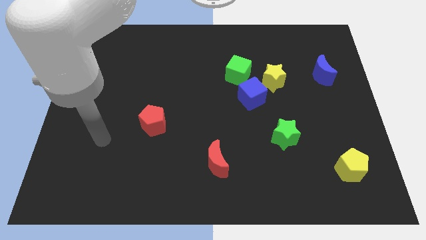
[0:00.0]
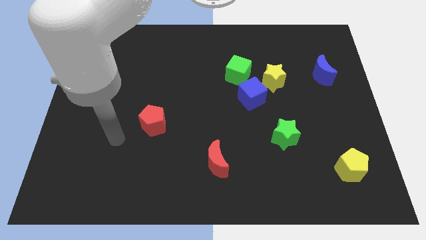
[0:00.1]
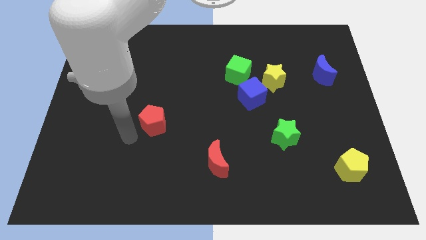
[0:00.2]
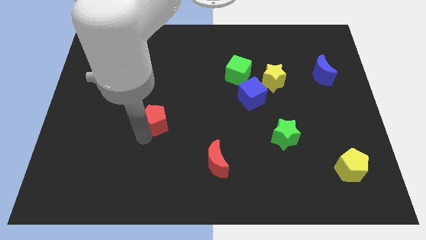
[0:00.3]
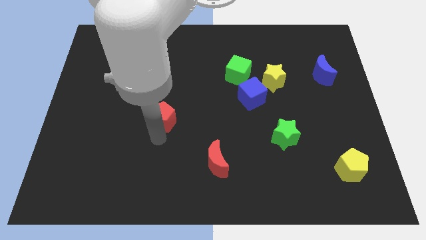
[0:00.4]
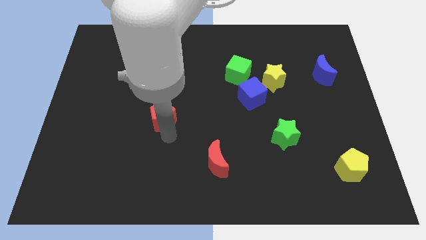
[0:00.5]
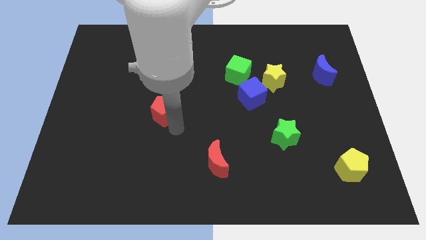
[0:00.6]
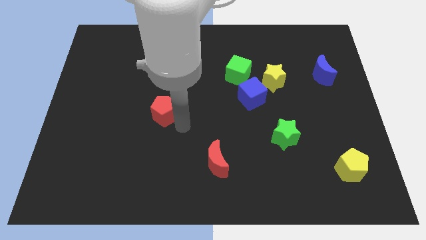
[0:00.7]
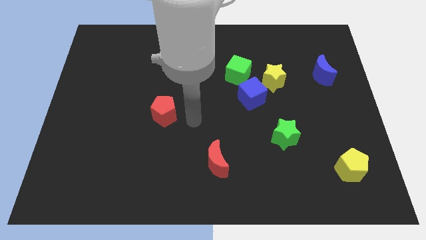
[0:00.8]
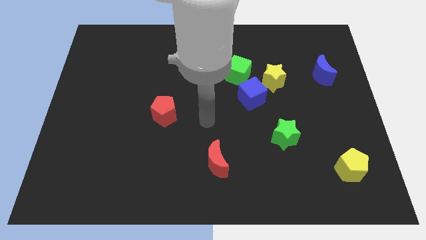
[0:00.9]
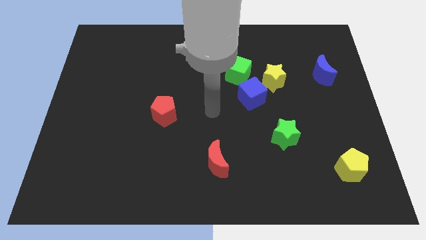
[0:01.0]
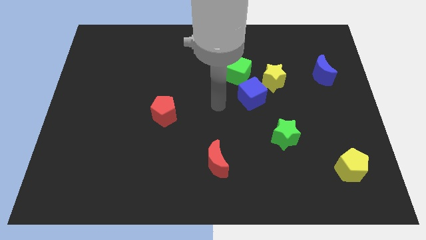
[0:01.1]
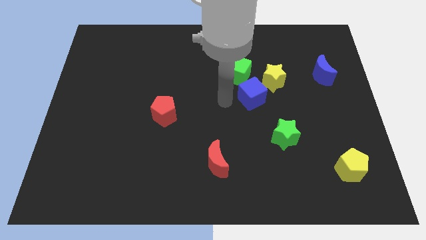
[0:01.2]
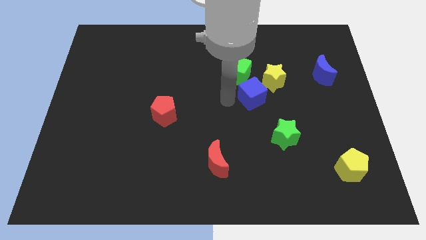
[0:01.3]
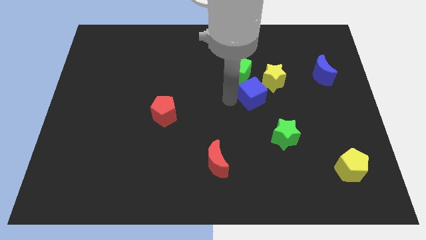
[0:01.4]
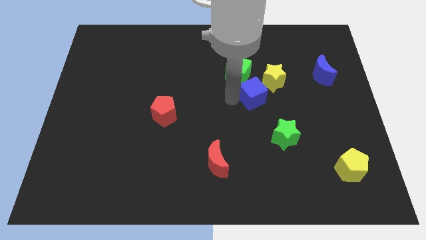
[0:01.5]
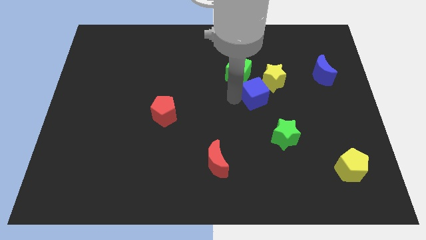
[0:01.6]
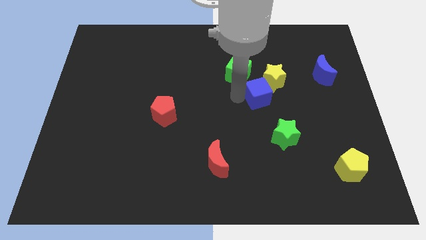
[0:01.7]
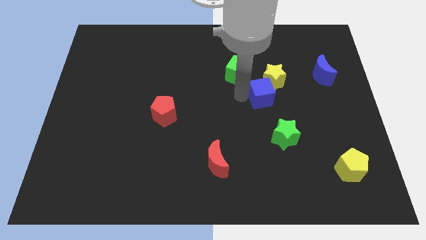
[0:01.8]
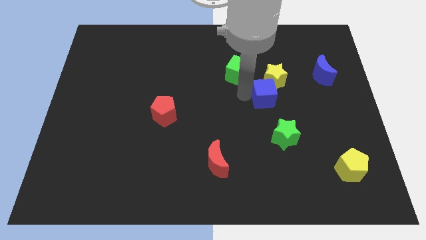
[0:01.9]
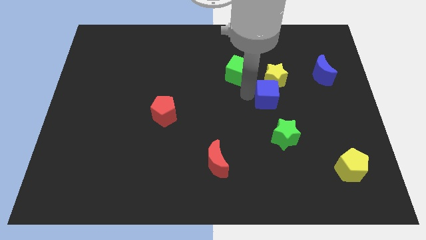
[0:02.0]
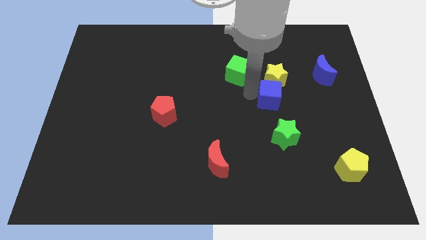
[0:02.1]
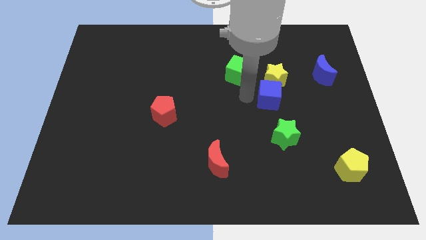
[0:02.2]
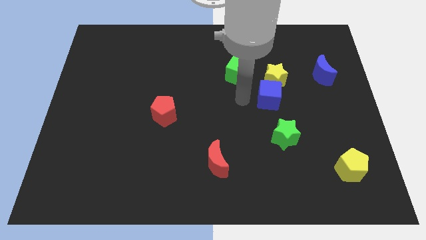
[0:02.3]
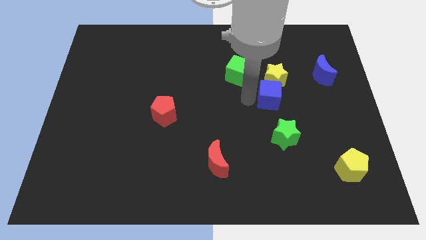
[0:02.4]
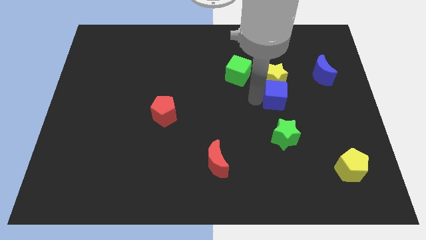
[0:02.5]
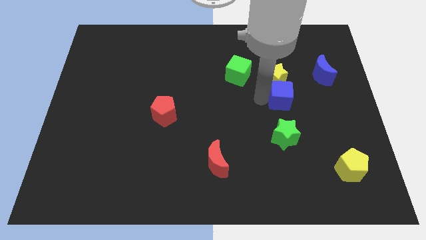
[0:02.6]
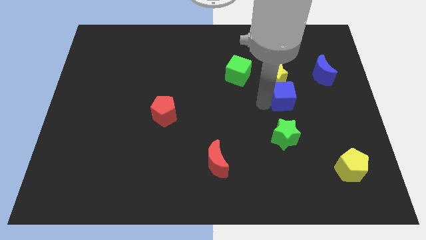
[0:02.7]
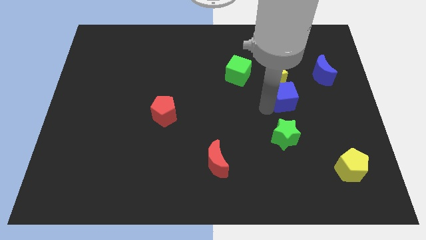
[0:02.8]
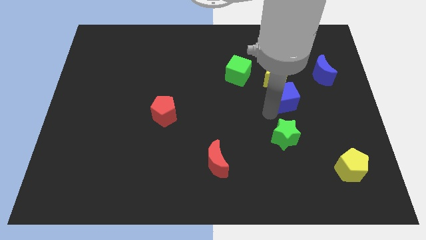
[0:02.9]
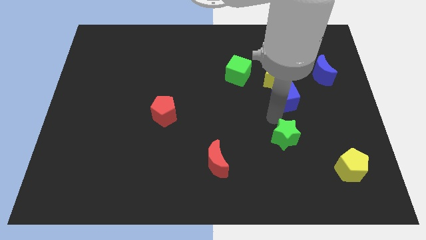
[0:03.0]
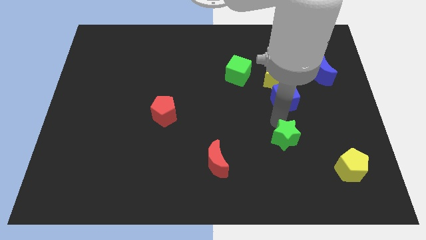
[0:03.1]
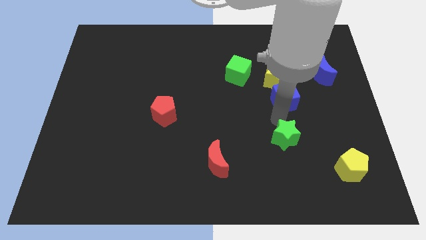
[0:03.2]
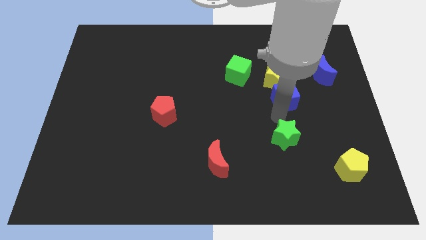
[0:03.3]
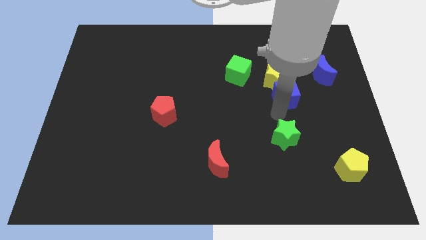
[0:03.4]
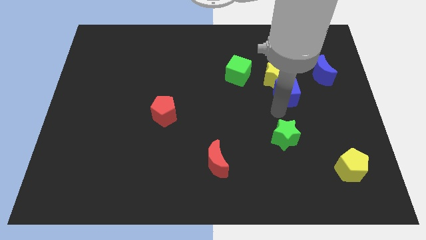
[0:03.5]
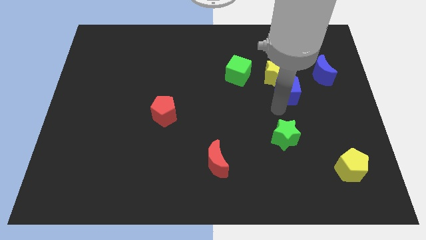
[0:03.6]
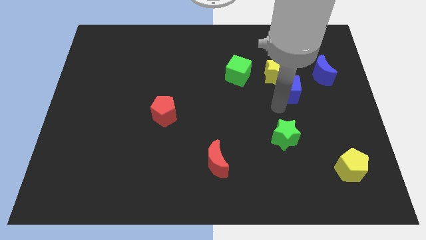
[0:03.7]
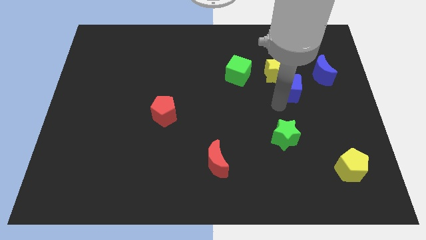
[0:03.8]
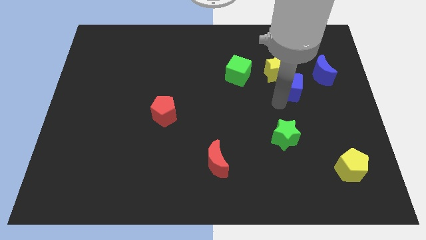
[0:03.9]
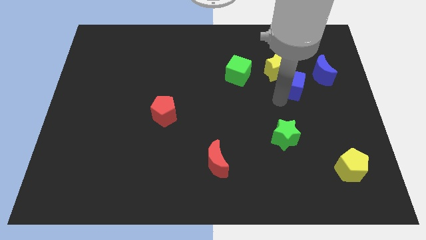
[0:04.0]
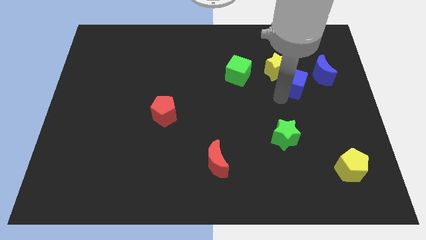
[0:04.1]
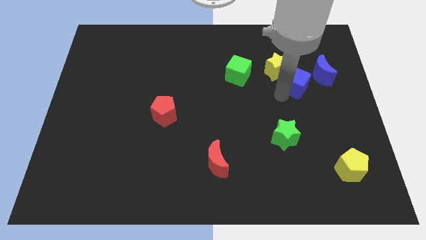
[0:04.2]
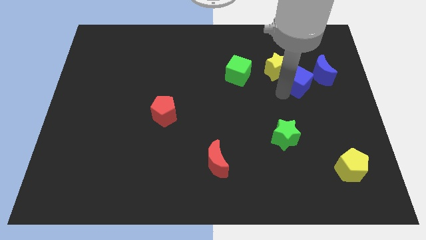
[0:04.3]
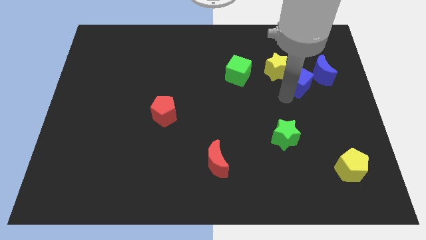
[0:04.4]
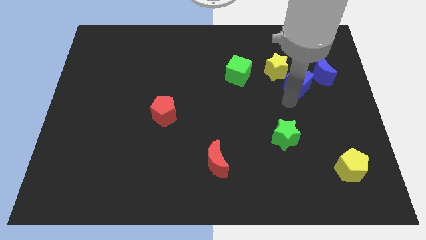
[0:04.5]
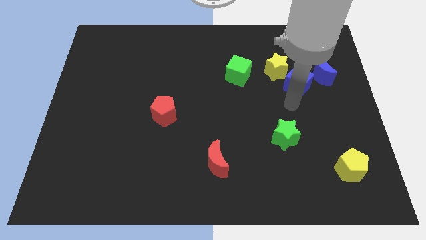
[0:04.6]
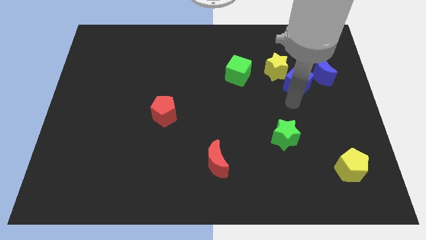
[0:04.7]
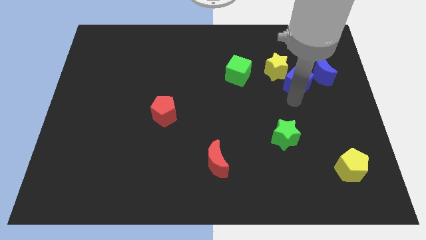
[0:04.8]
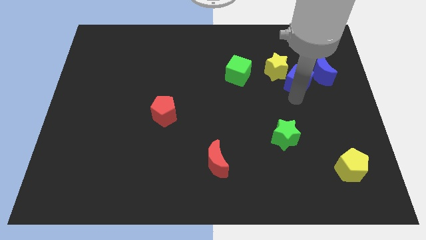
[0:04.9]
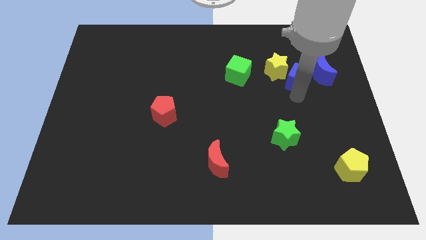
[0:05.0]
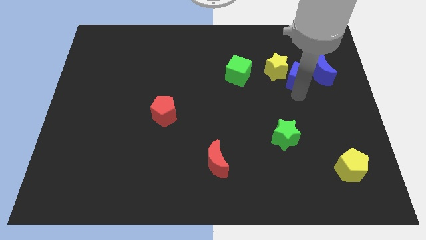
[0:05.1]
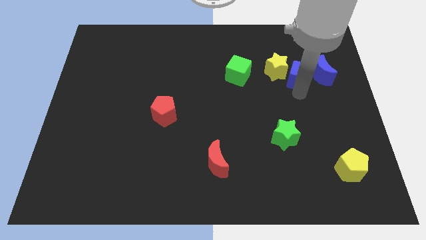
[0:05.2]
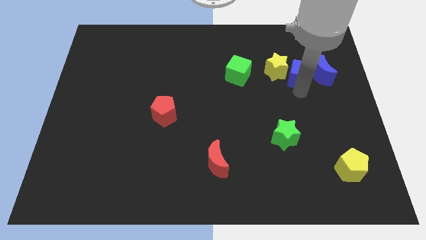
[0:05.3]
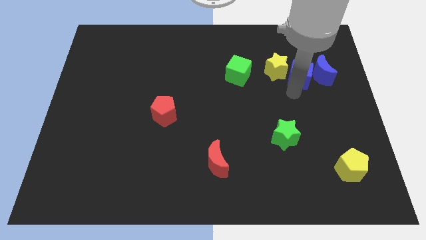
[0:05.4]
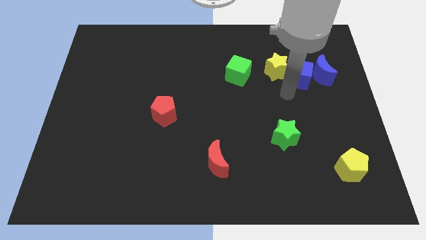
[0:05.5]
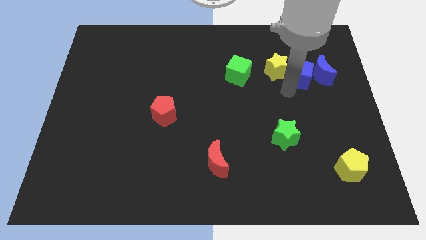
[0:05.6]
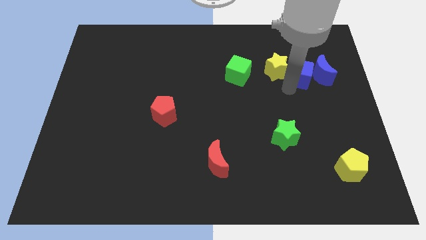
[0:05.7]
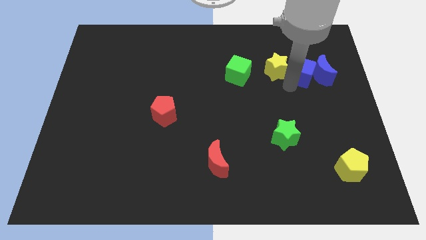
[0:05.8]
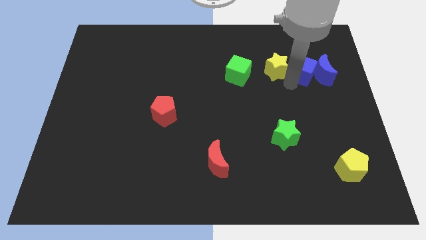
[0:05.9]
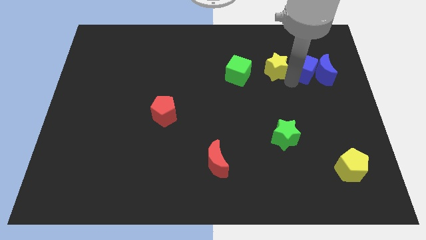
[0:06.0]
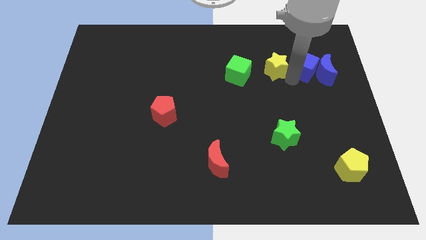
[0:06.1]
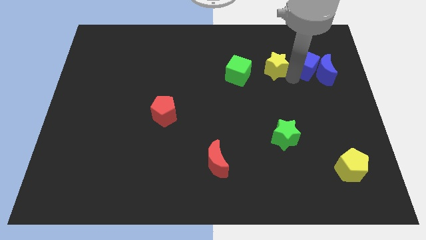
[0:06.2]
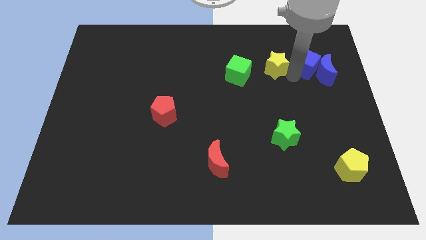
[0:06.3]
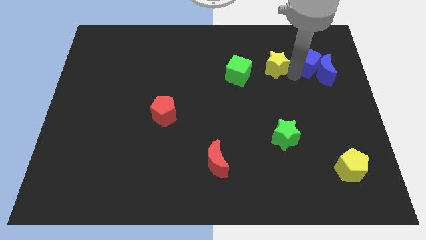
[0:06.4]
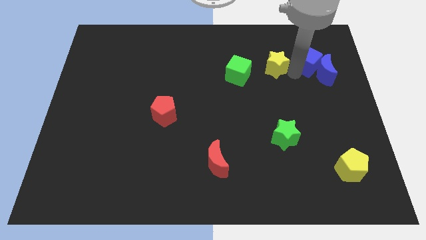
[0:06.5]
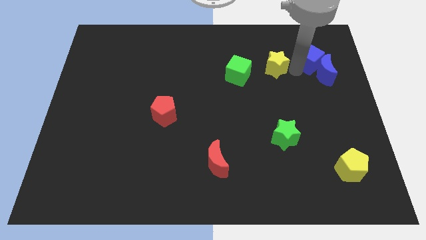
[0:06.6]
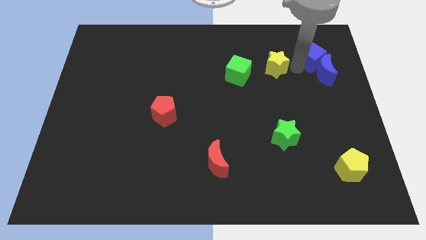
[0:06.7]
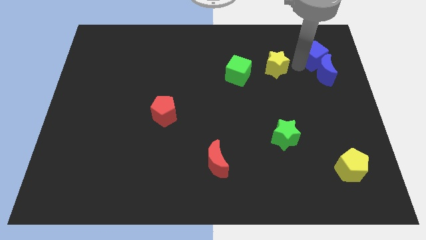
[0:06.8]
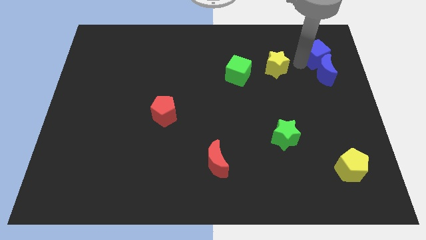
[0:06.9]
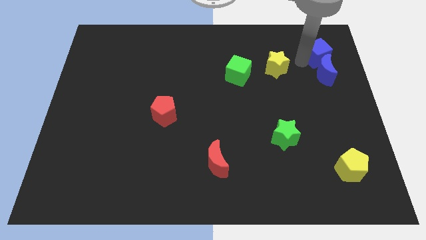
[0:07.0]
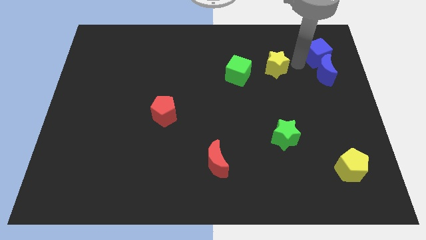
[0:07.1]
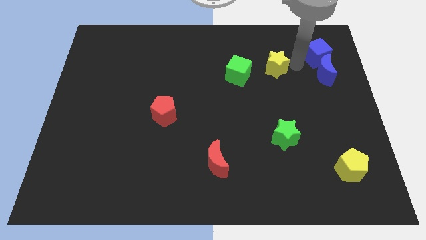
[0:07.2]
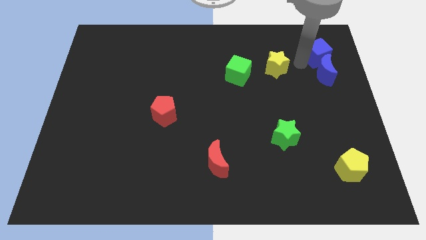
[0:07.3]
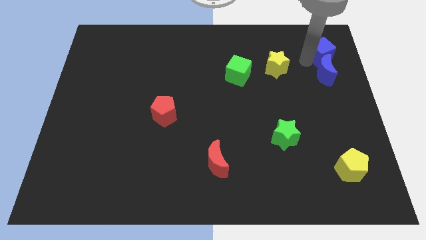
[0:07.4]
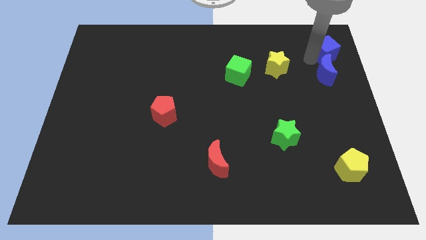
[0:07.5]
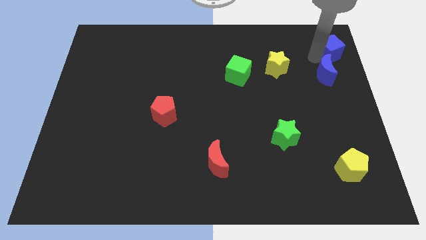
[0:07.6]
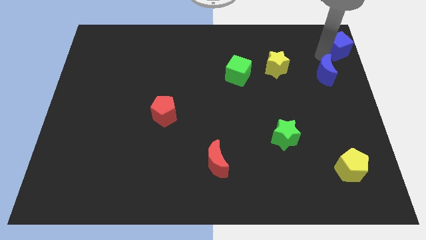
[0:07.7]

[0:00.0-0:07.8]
push the blue cube to the top right corner
